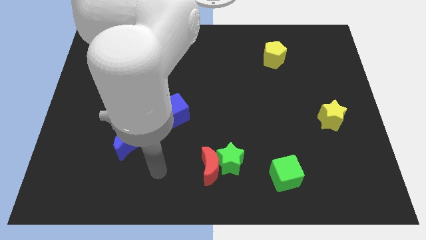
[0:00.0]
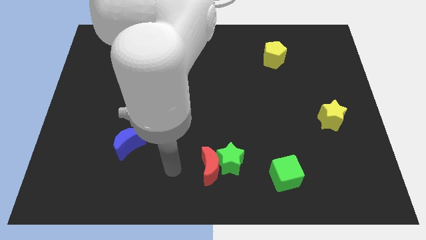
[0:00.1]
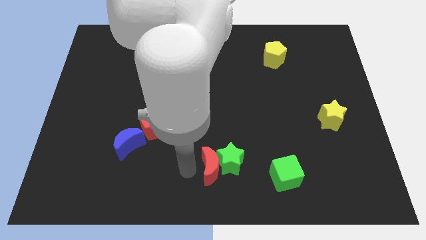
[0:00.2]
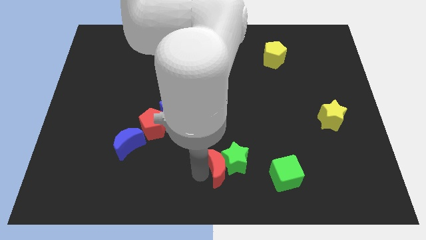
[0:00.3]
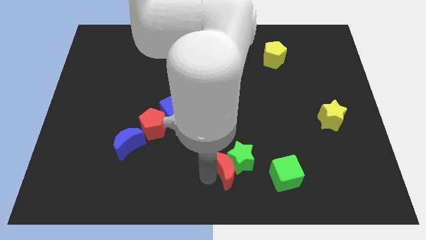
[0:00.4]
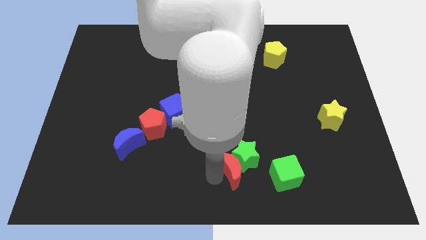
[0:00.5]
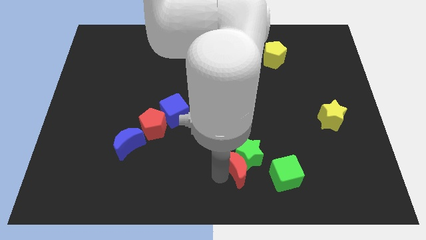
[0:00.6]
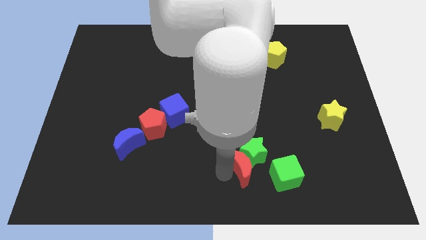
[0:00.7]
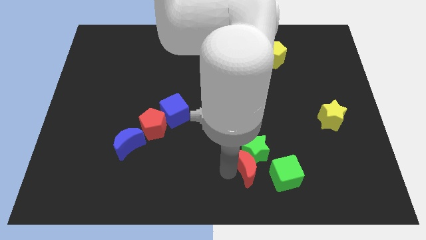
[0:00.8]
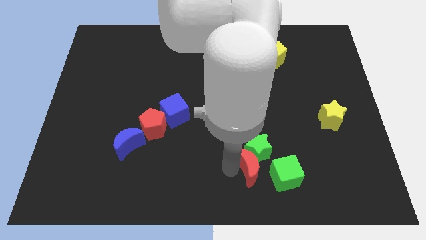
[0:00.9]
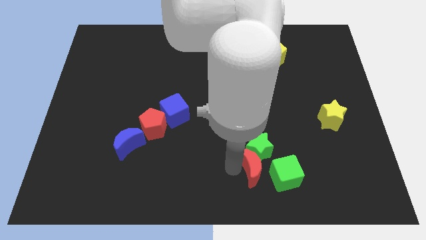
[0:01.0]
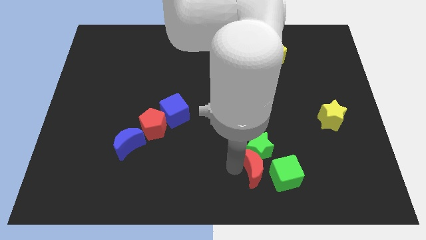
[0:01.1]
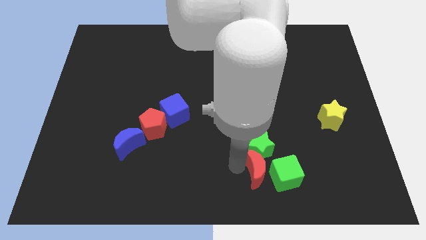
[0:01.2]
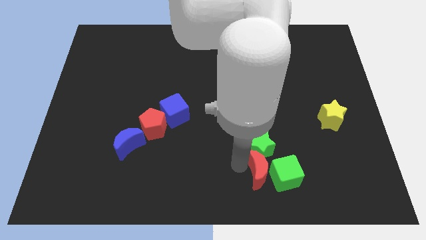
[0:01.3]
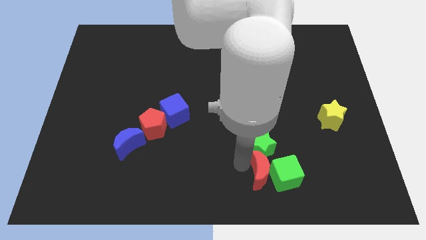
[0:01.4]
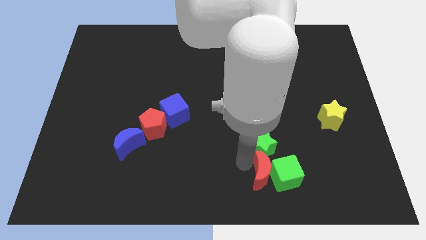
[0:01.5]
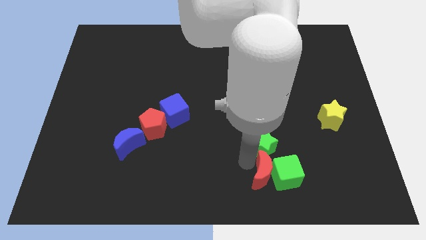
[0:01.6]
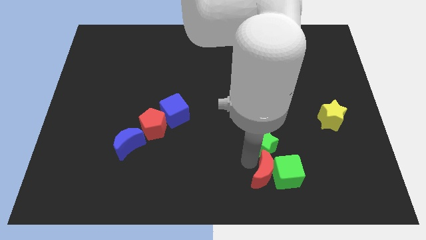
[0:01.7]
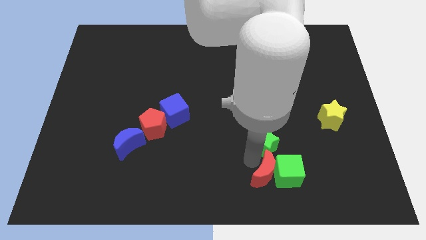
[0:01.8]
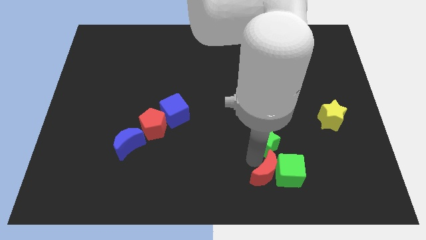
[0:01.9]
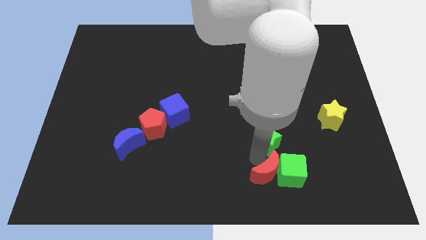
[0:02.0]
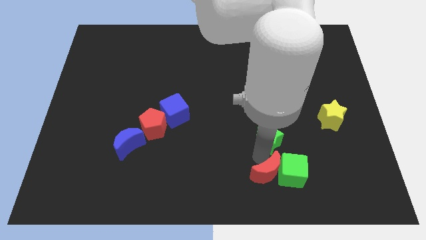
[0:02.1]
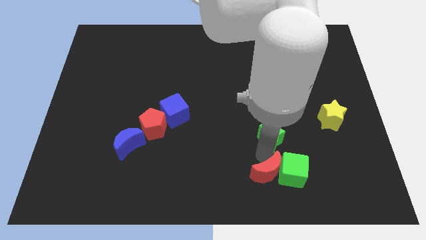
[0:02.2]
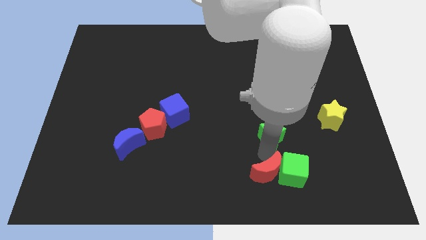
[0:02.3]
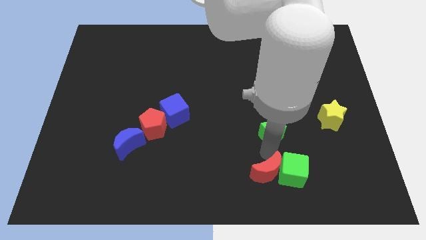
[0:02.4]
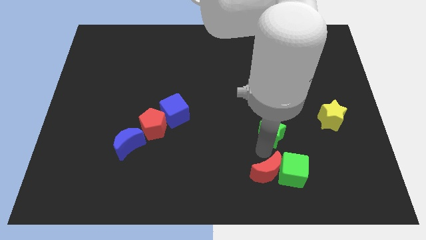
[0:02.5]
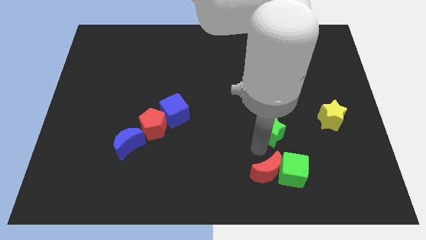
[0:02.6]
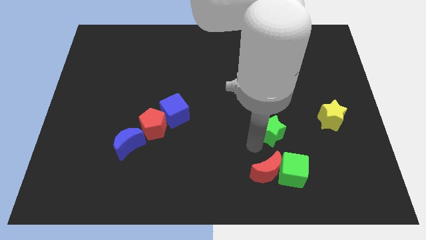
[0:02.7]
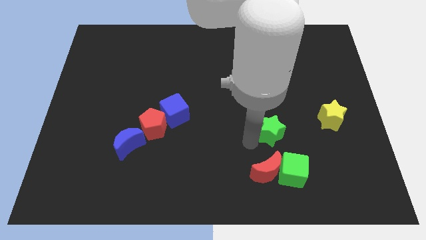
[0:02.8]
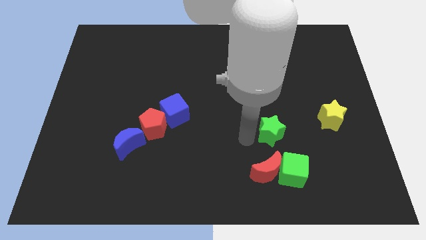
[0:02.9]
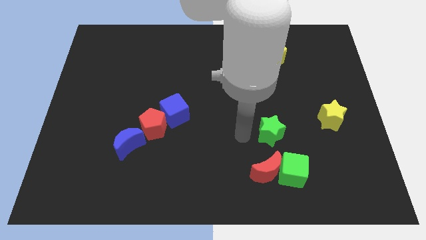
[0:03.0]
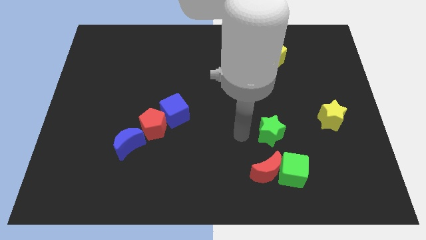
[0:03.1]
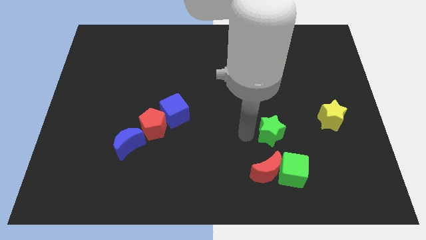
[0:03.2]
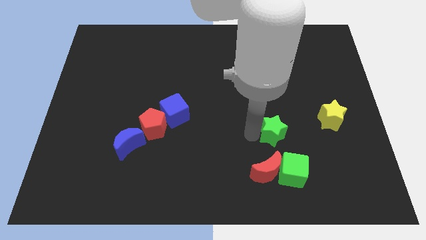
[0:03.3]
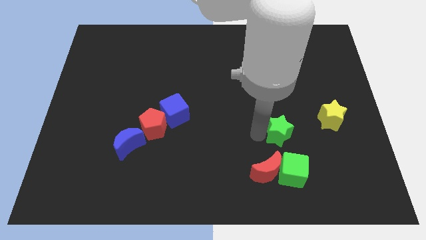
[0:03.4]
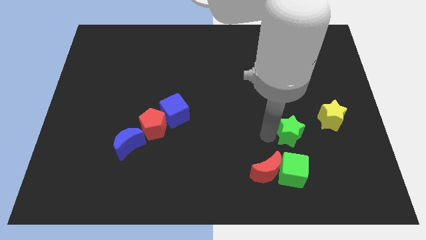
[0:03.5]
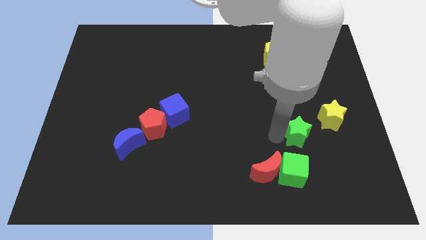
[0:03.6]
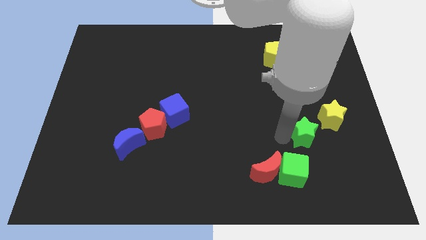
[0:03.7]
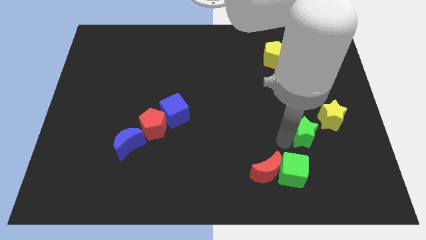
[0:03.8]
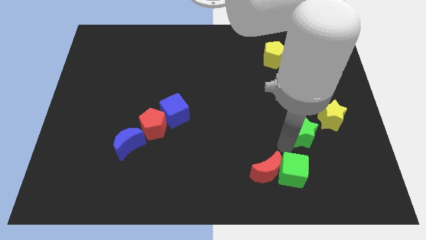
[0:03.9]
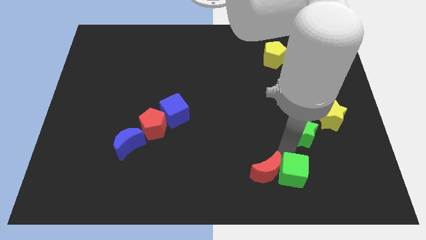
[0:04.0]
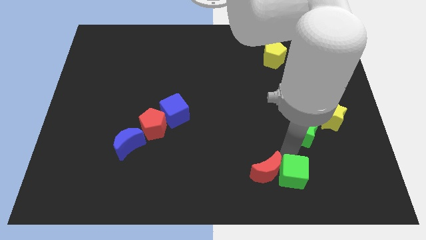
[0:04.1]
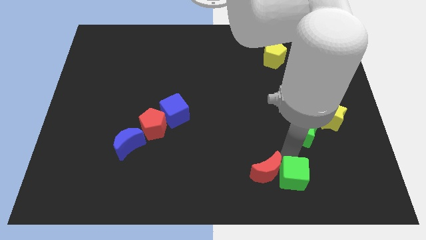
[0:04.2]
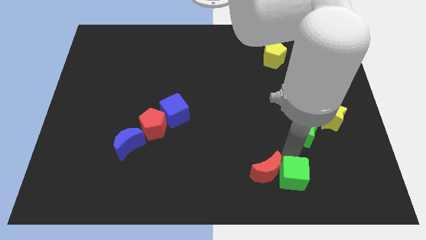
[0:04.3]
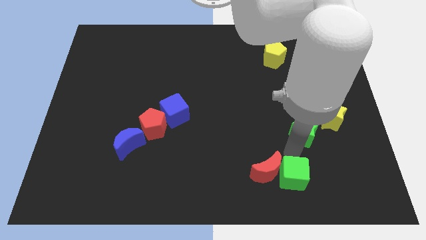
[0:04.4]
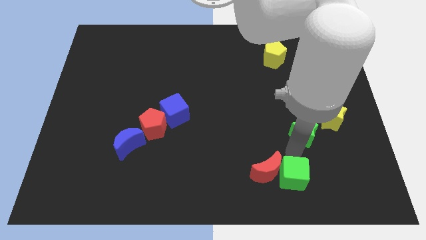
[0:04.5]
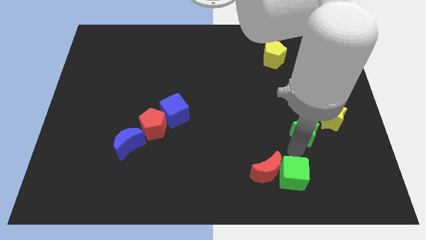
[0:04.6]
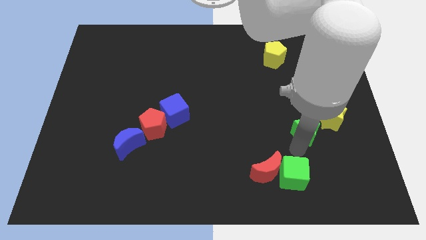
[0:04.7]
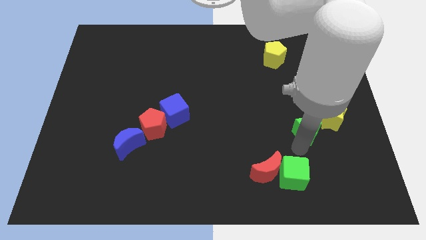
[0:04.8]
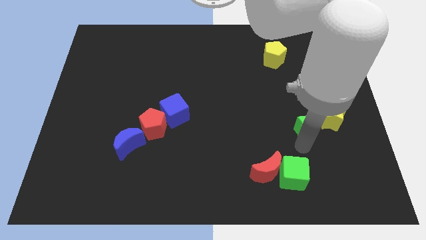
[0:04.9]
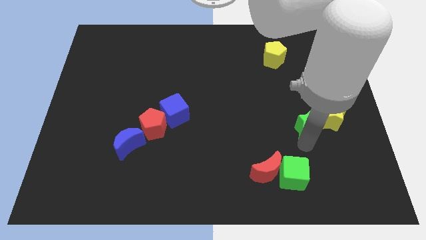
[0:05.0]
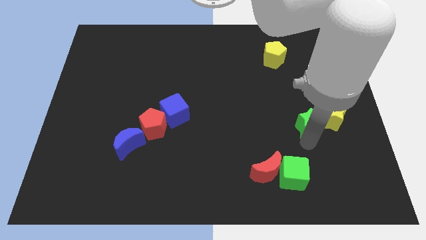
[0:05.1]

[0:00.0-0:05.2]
push the green star to the yellow star

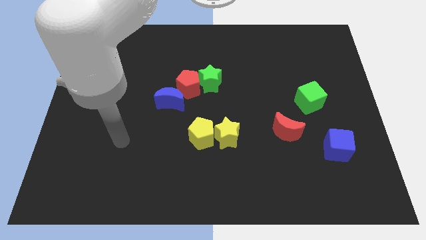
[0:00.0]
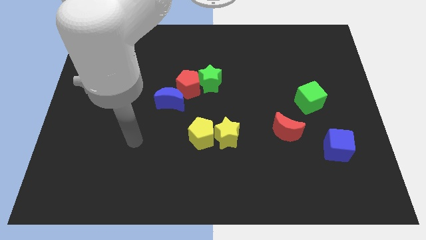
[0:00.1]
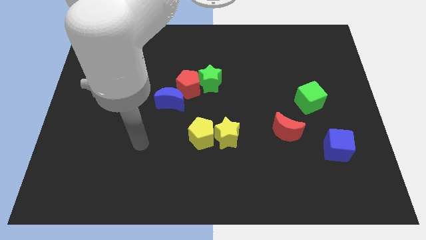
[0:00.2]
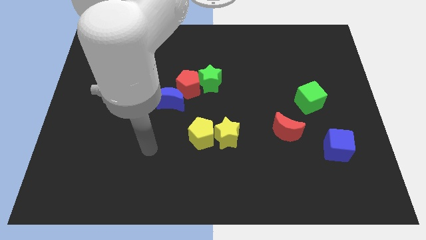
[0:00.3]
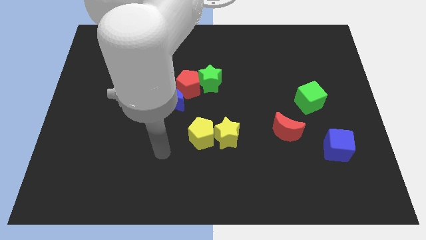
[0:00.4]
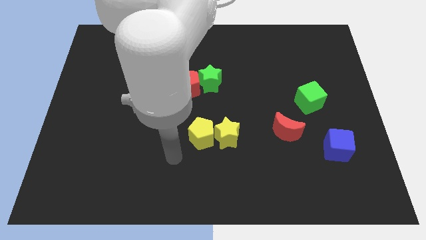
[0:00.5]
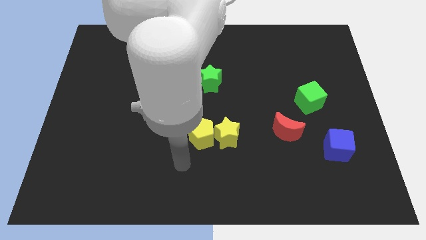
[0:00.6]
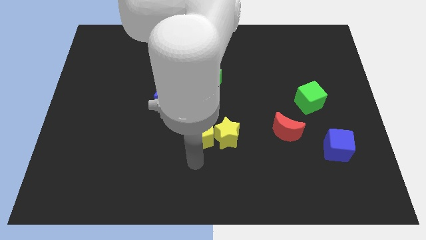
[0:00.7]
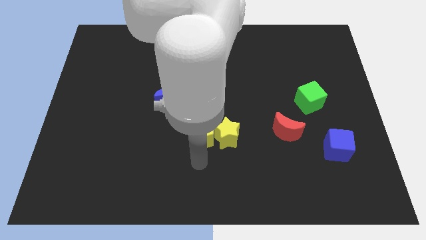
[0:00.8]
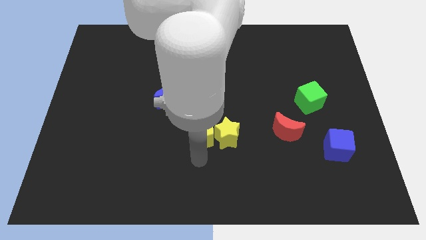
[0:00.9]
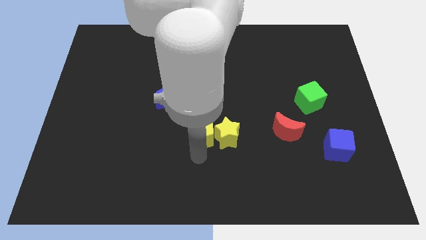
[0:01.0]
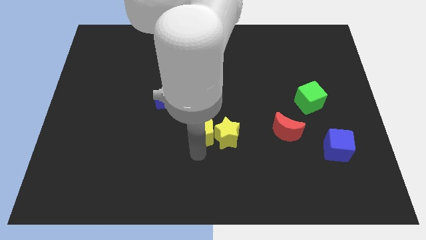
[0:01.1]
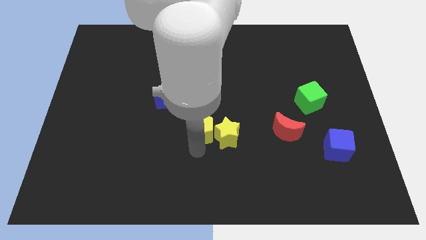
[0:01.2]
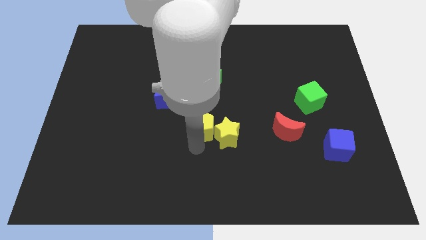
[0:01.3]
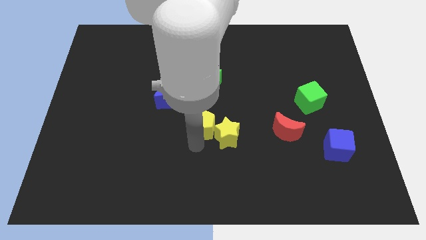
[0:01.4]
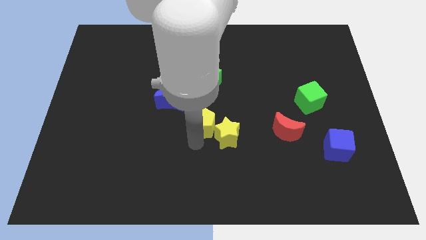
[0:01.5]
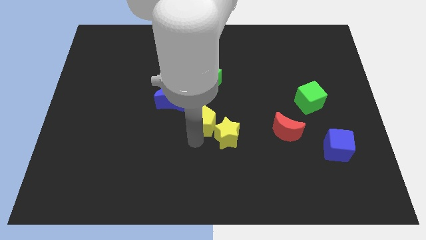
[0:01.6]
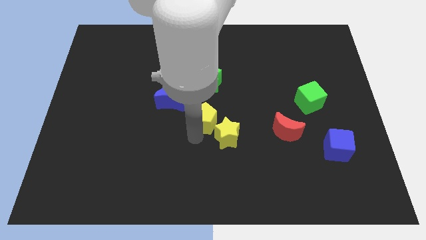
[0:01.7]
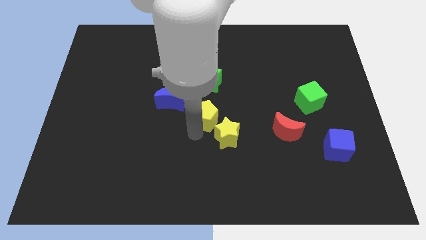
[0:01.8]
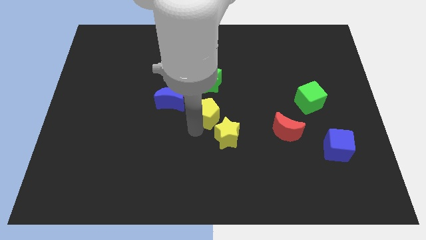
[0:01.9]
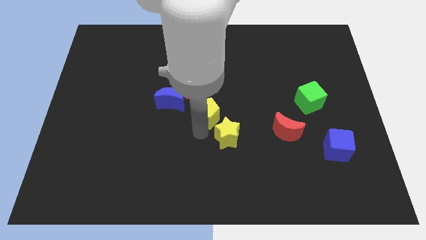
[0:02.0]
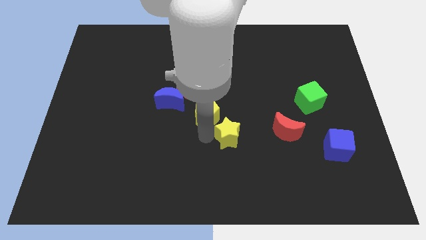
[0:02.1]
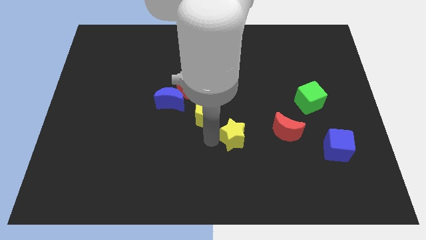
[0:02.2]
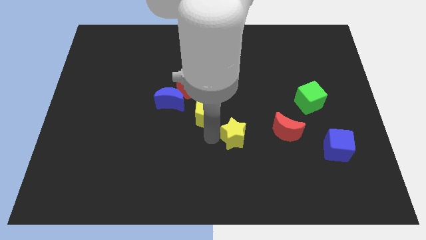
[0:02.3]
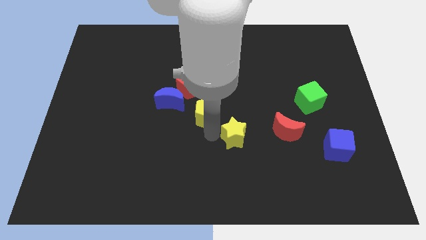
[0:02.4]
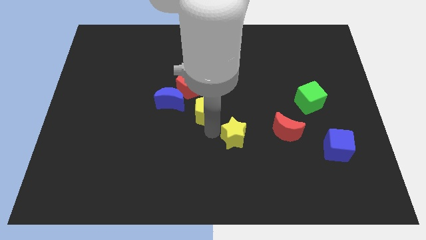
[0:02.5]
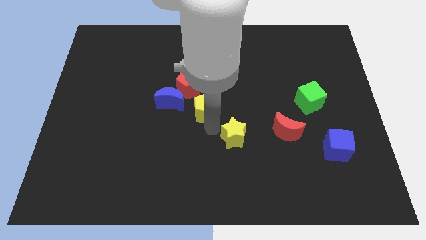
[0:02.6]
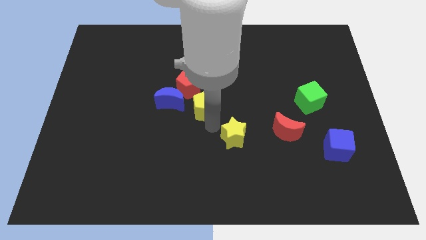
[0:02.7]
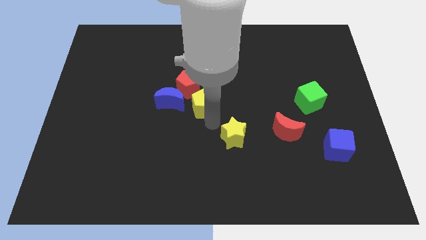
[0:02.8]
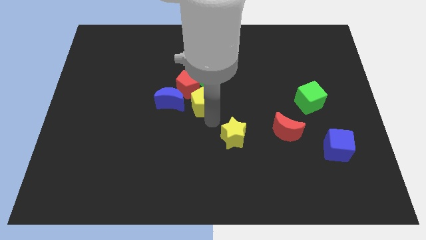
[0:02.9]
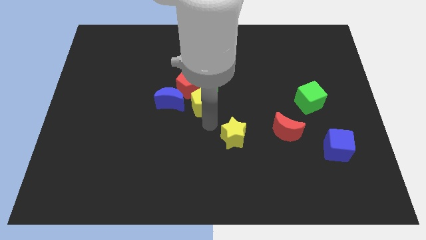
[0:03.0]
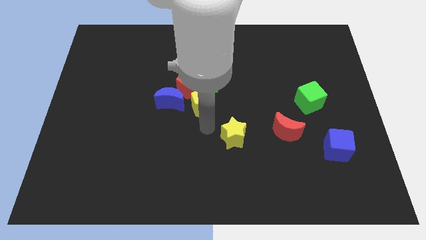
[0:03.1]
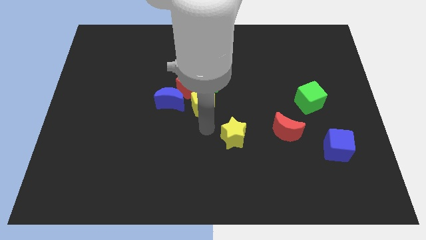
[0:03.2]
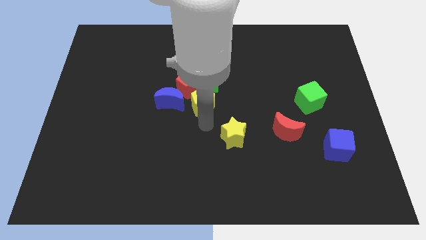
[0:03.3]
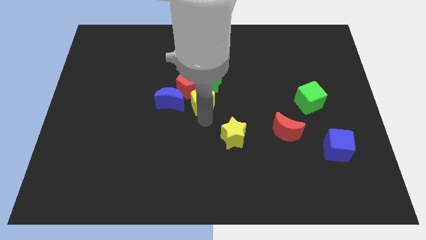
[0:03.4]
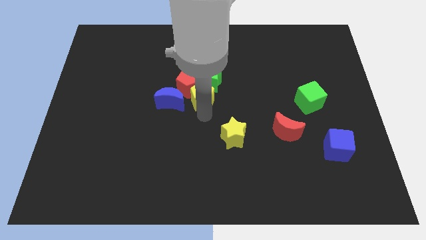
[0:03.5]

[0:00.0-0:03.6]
put the yellow pentagon next to the red pentagon
